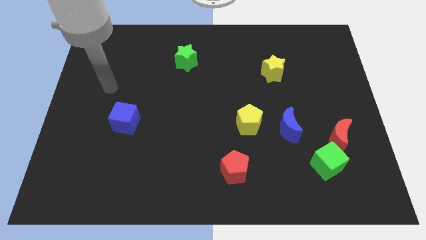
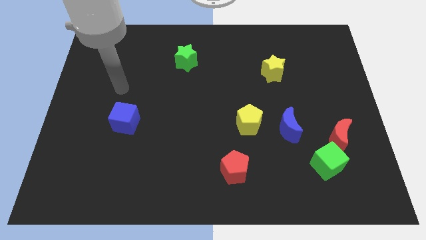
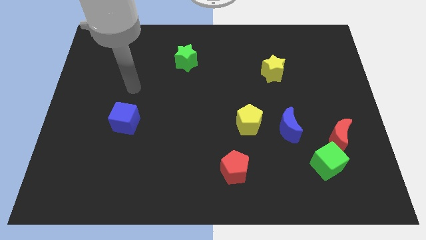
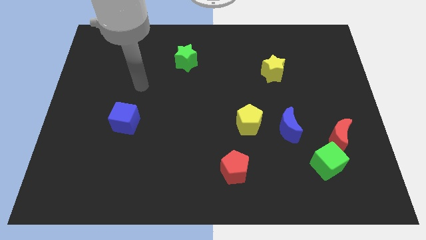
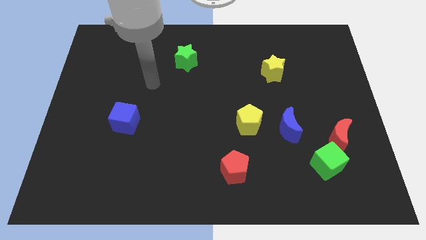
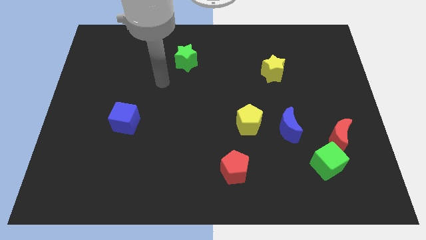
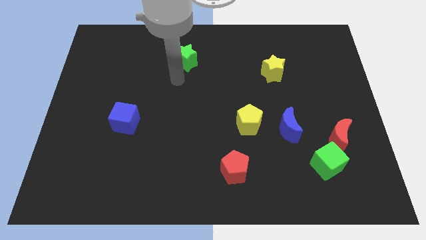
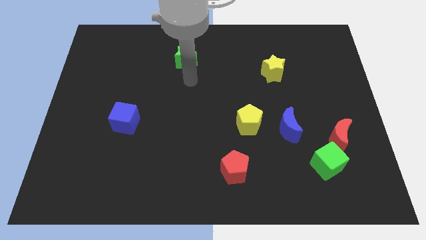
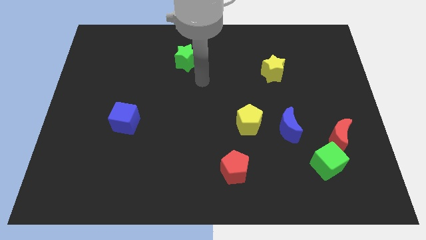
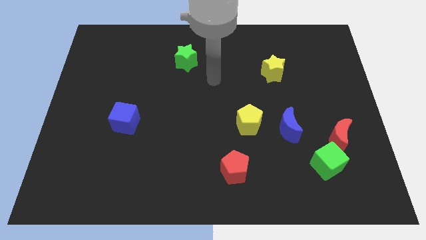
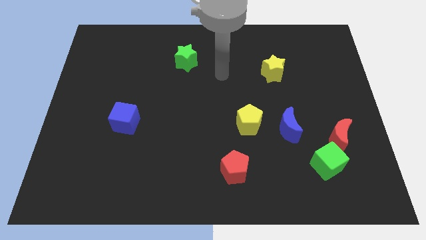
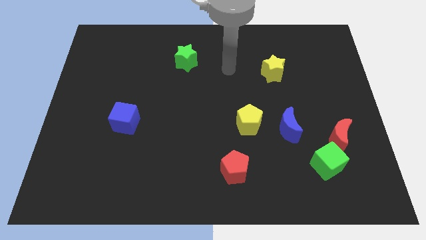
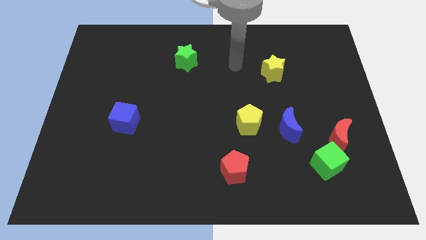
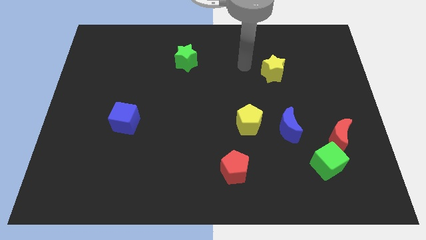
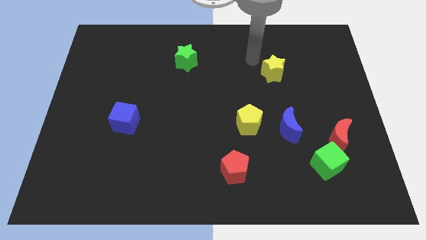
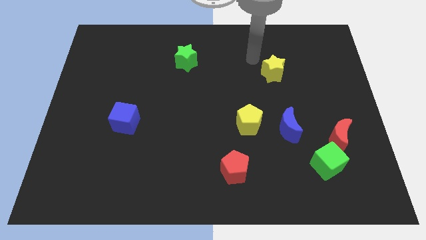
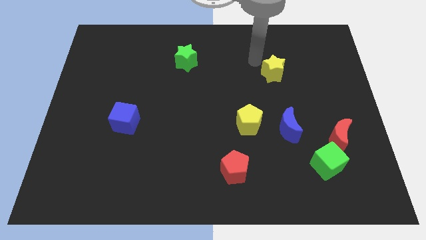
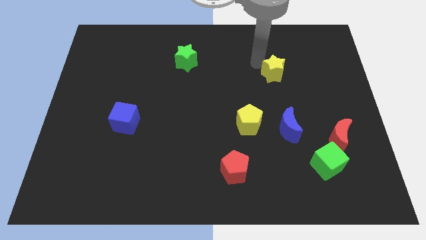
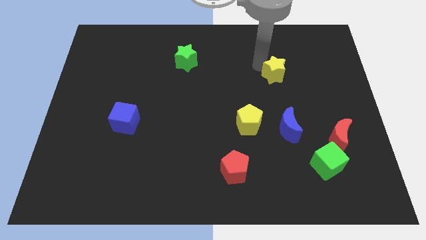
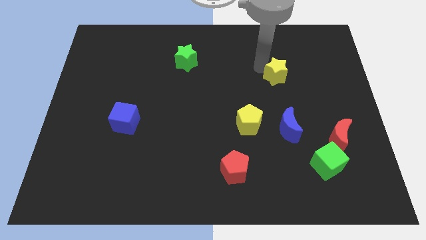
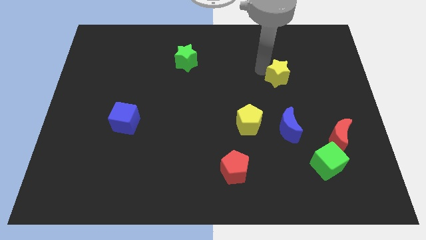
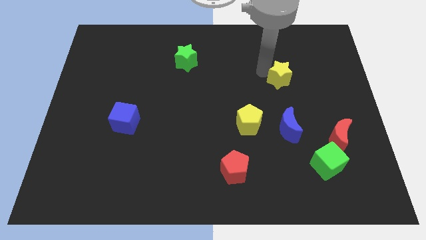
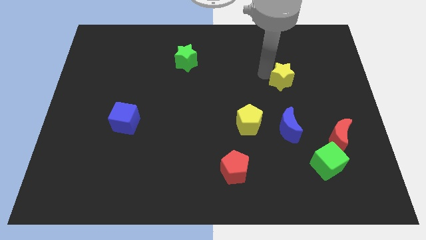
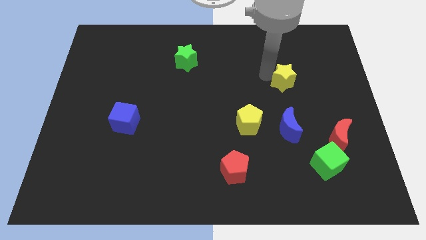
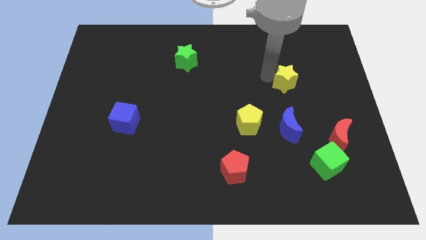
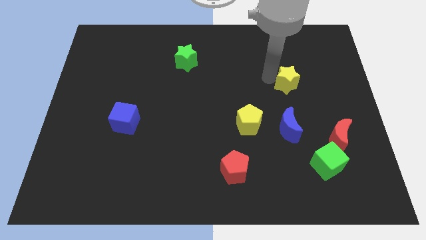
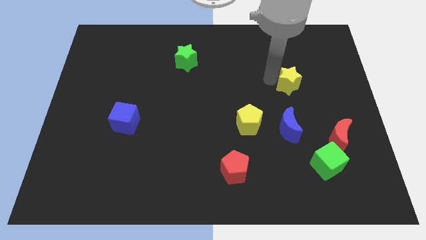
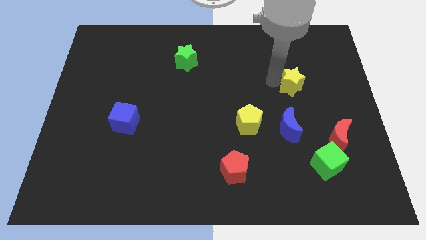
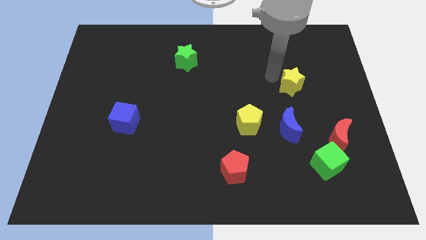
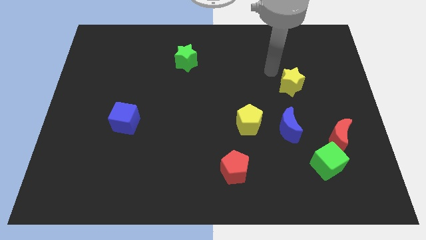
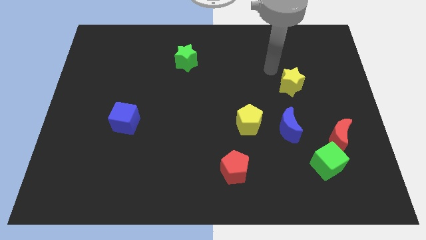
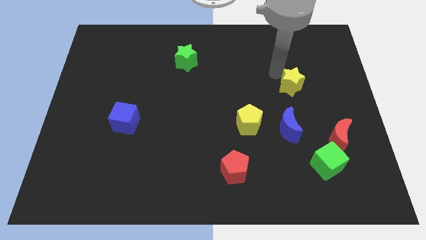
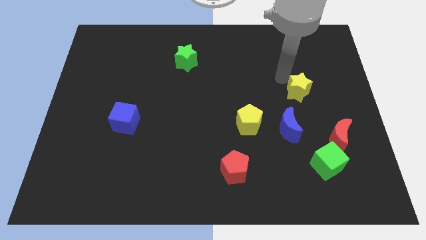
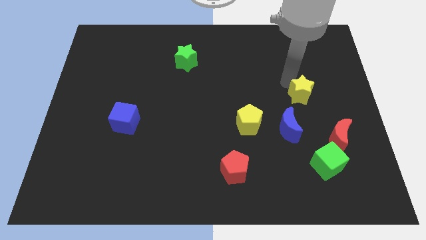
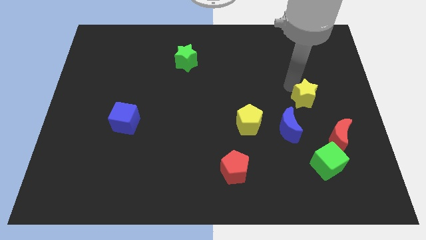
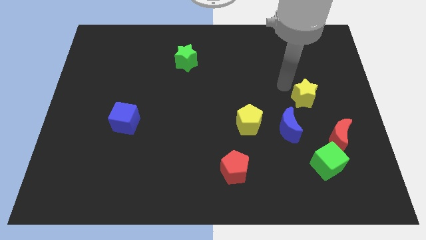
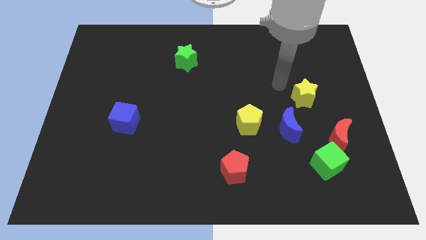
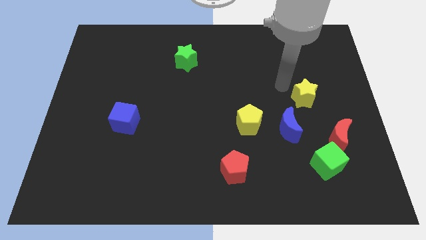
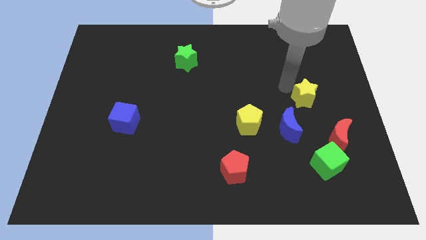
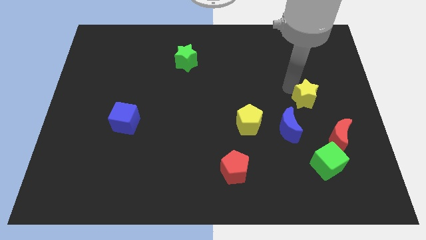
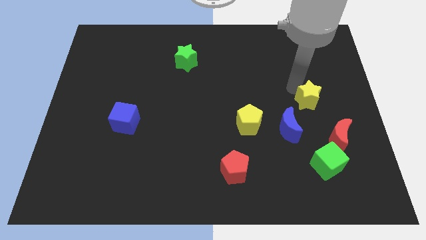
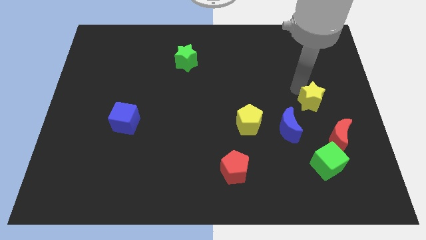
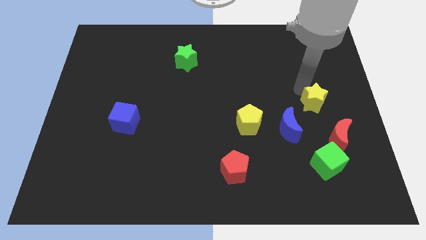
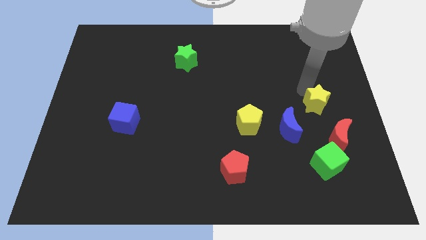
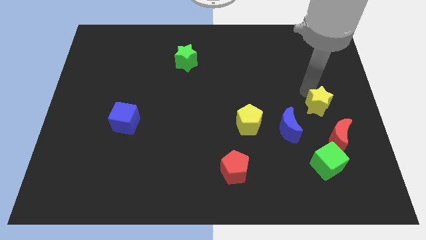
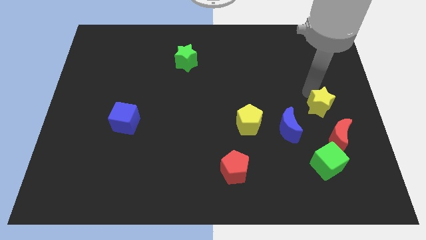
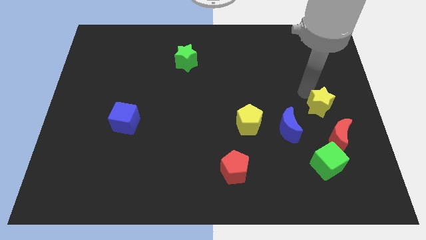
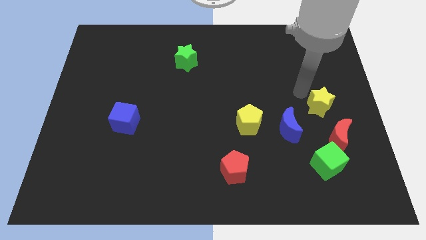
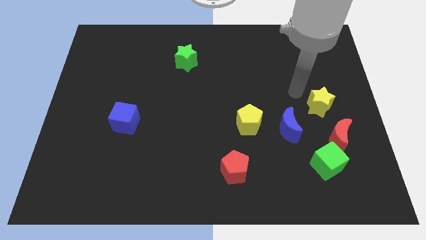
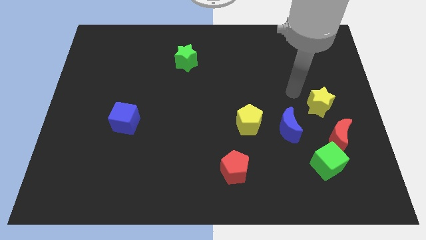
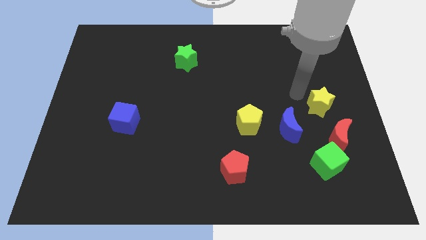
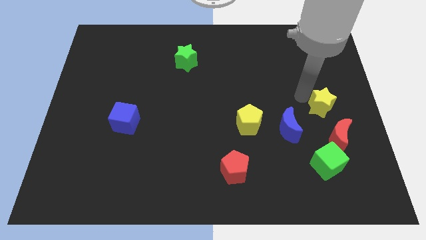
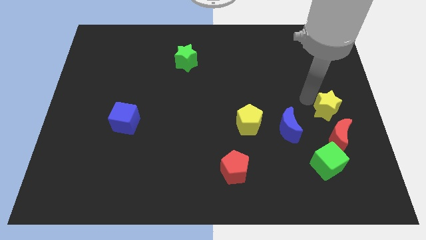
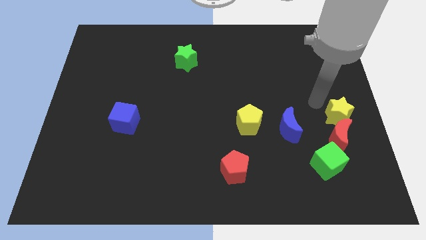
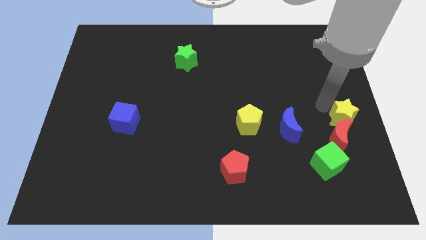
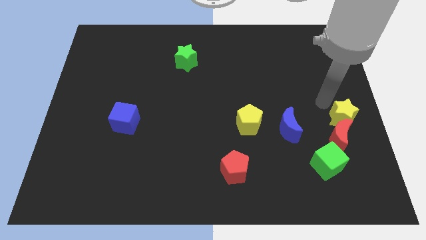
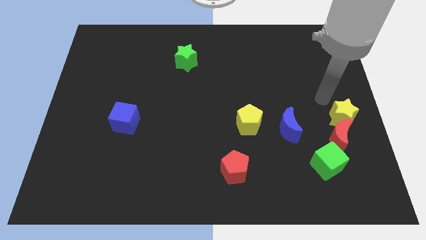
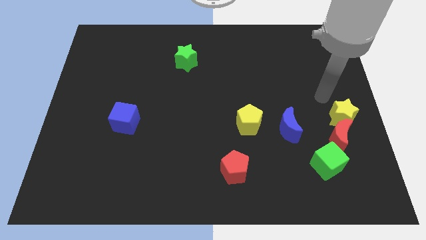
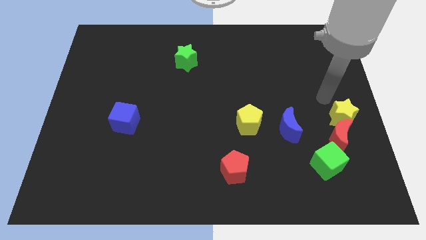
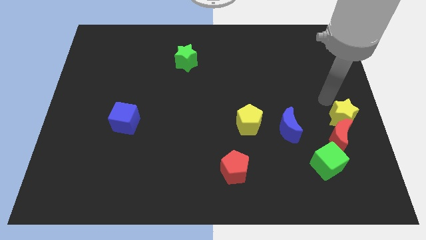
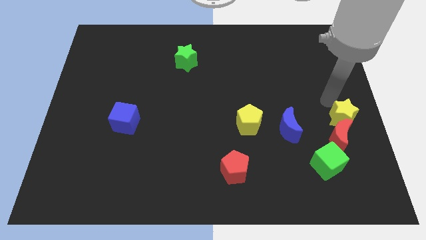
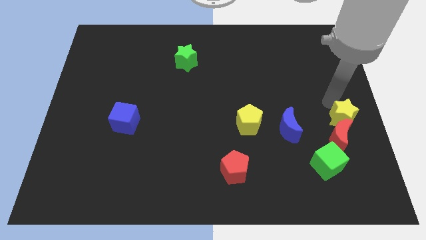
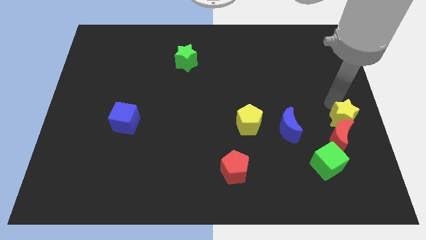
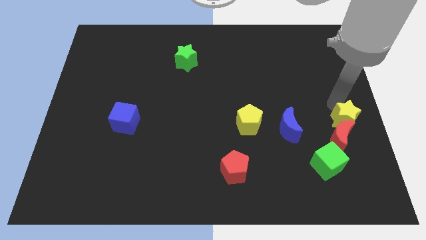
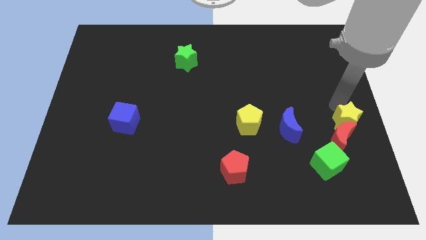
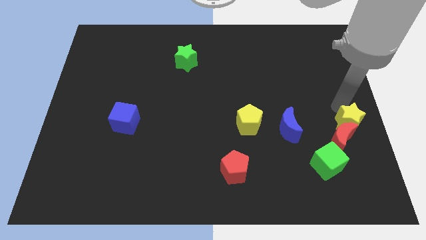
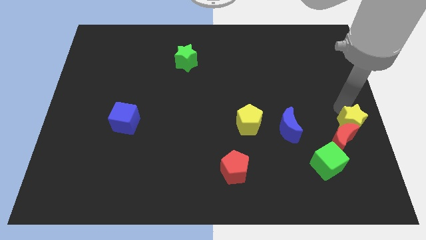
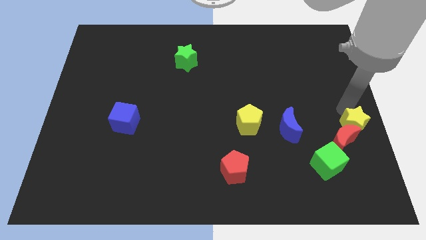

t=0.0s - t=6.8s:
move the yellow star to the top right side of the green cube

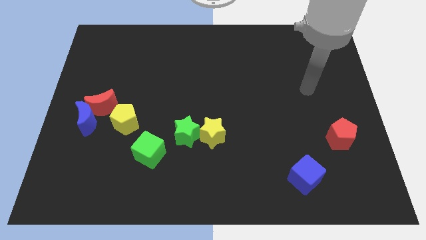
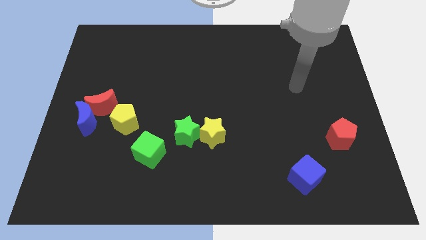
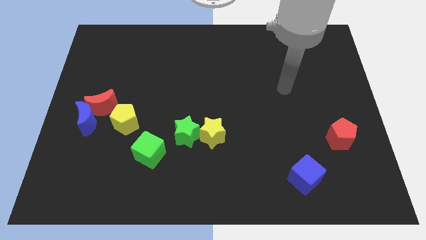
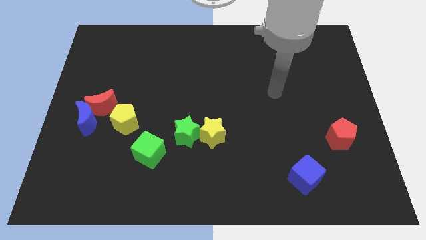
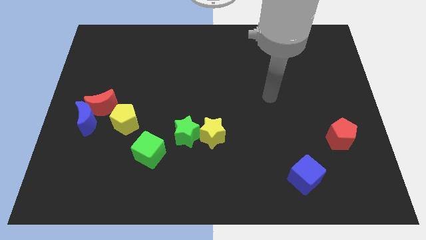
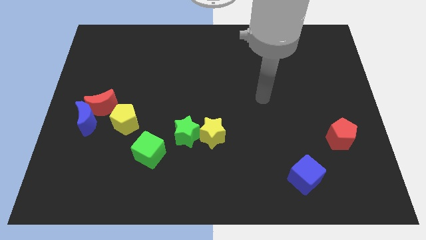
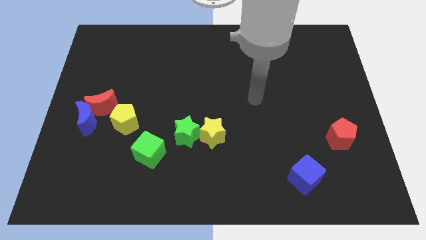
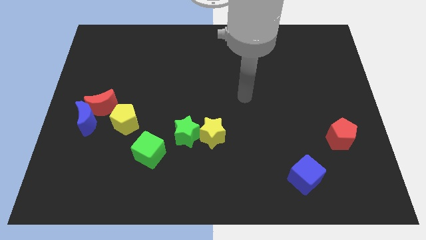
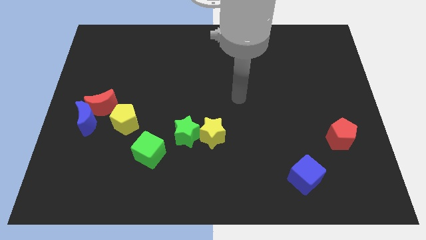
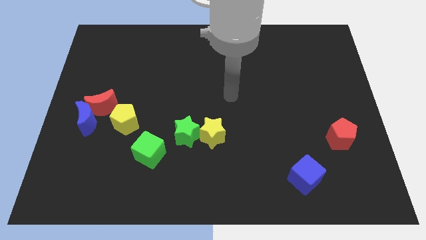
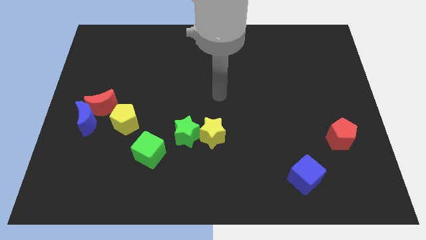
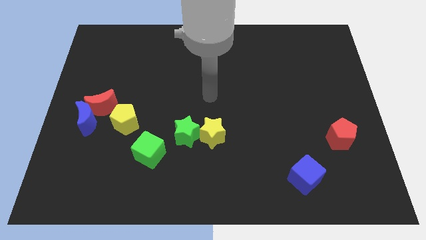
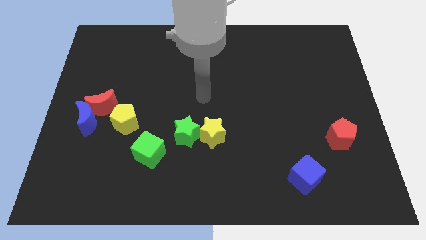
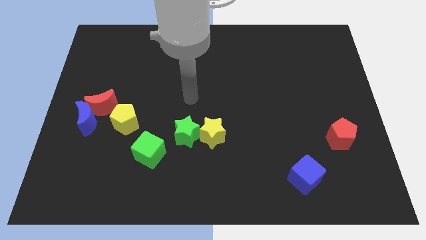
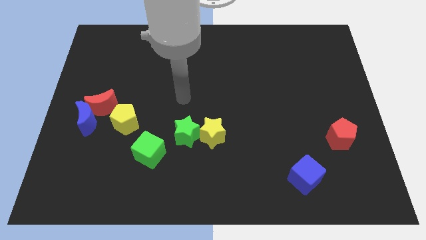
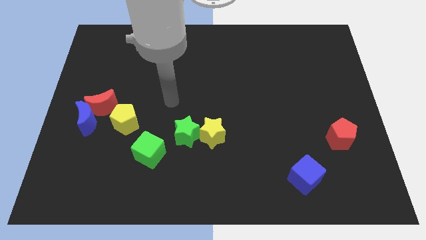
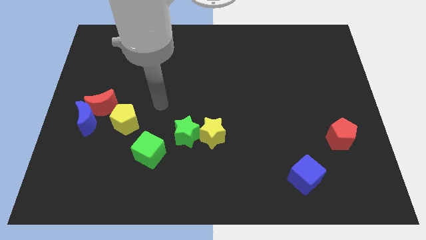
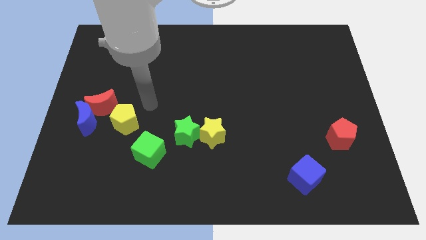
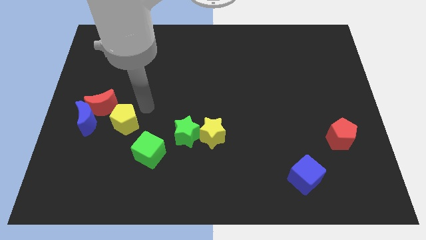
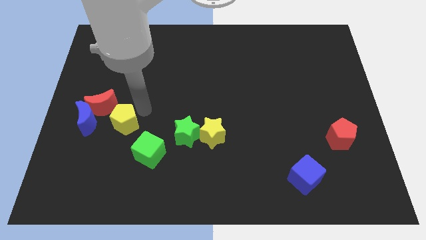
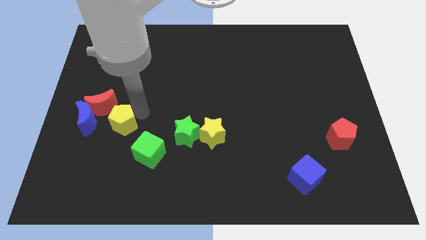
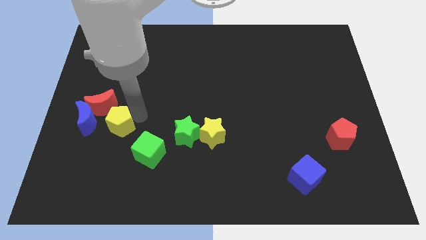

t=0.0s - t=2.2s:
put the yellow pentagon below the red moon
